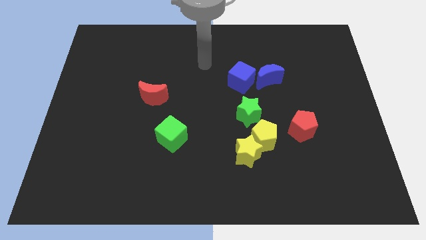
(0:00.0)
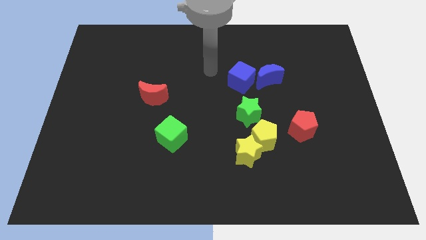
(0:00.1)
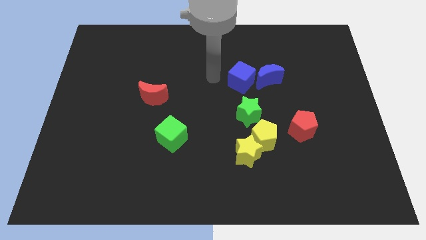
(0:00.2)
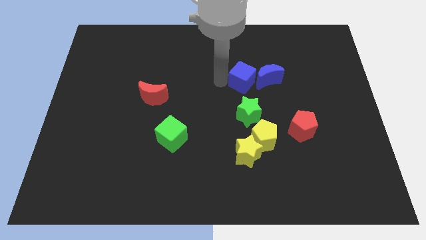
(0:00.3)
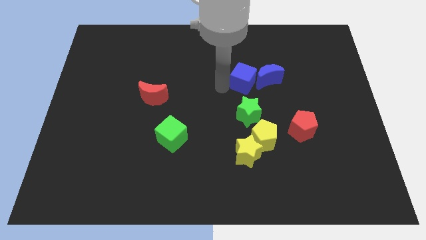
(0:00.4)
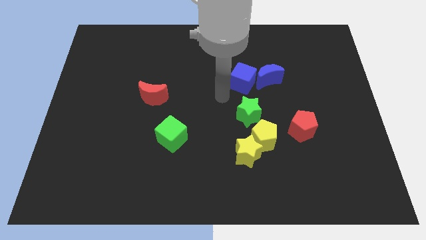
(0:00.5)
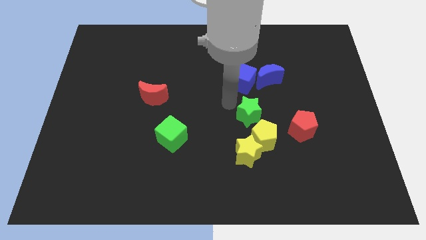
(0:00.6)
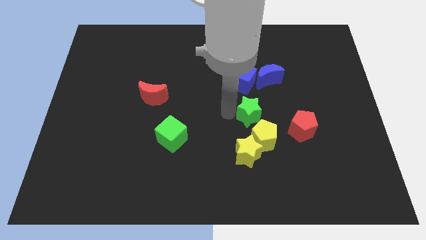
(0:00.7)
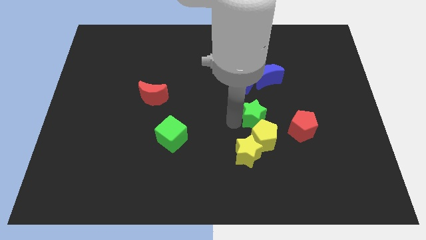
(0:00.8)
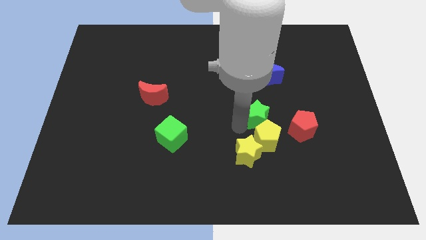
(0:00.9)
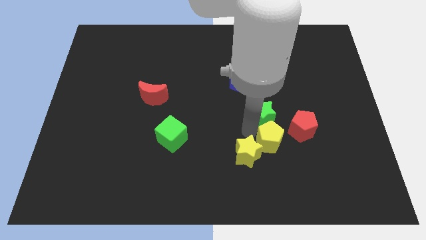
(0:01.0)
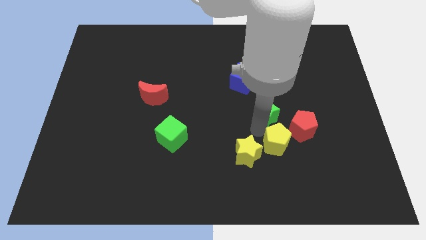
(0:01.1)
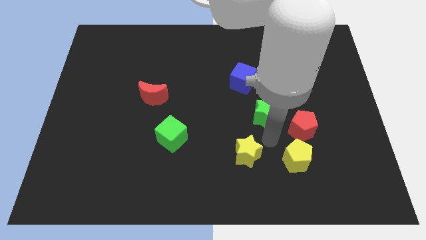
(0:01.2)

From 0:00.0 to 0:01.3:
move the yellow star away from the yellow pentagon

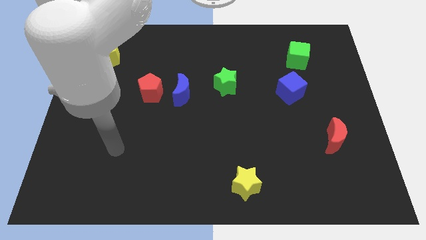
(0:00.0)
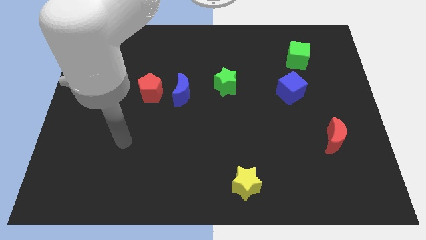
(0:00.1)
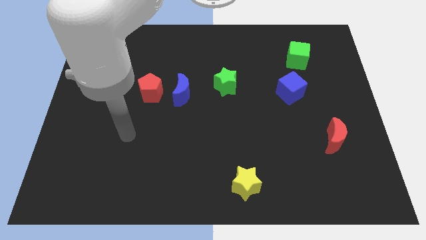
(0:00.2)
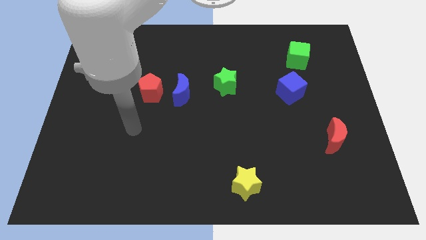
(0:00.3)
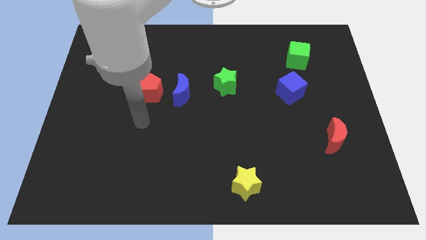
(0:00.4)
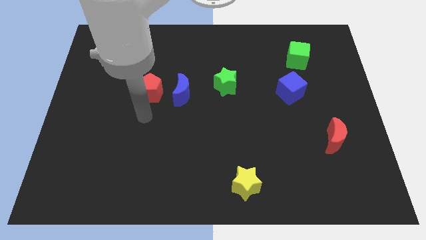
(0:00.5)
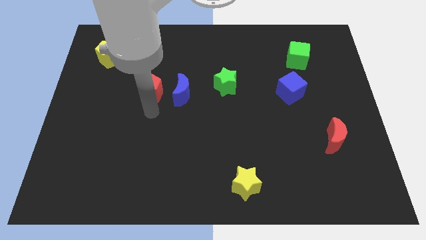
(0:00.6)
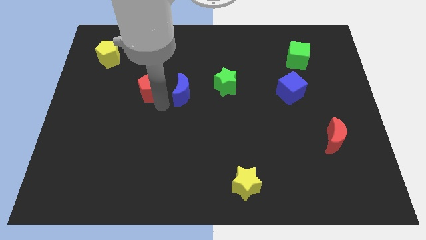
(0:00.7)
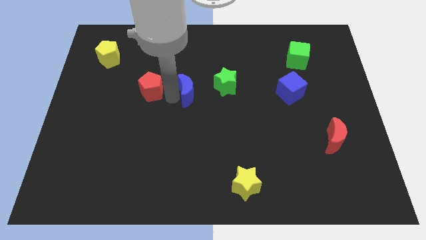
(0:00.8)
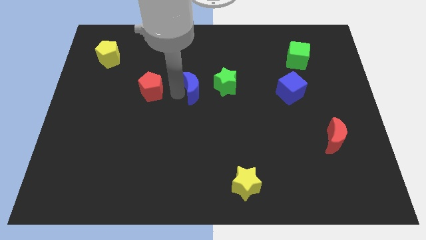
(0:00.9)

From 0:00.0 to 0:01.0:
pull the red pentagon apart from the blue moon

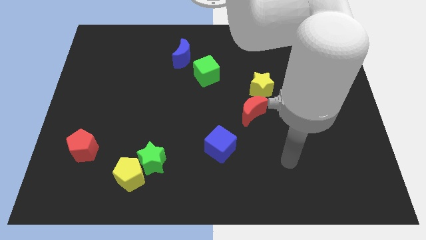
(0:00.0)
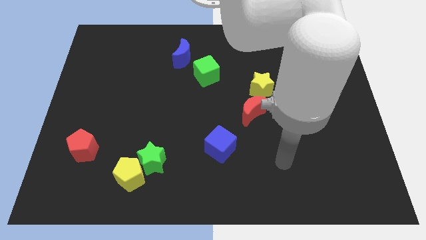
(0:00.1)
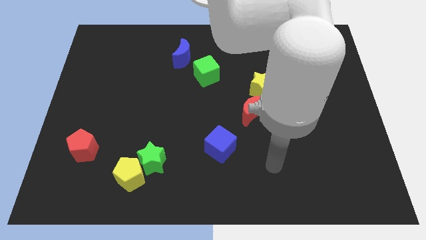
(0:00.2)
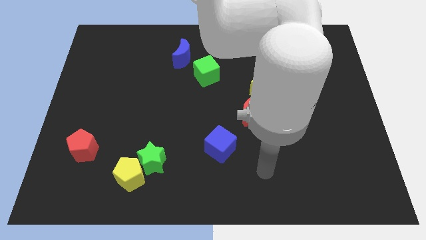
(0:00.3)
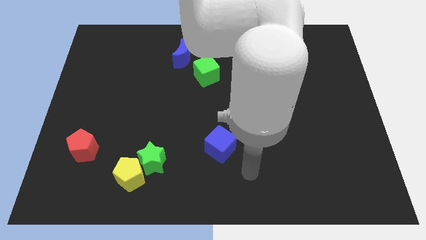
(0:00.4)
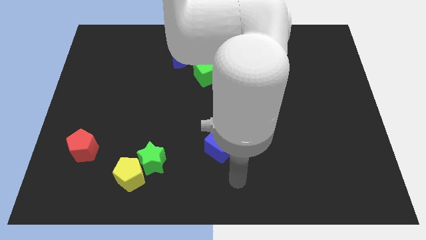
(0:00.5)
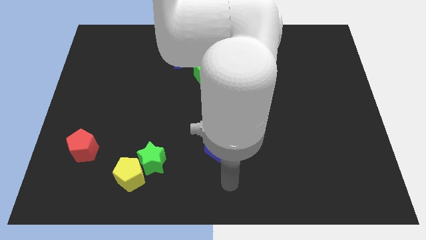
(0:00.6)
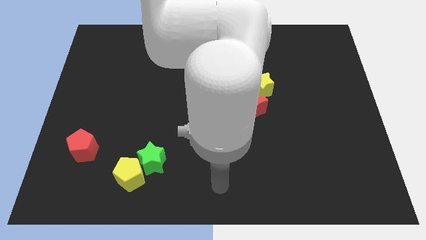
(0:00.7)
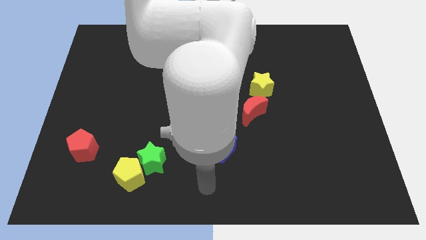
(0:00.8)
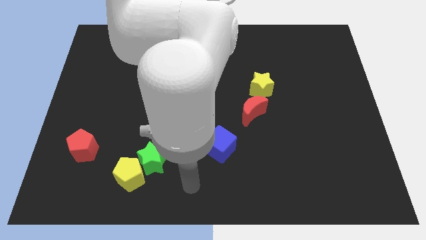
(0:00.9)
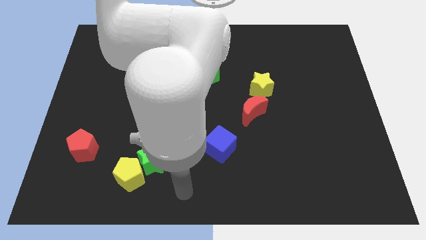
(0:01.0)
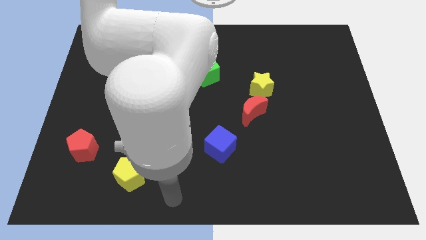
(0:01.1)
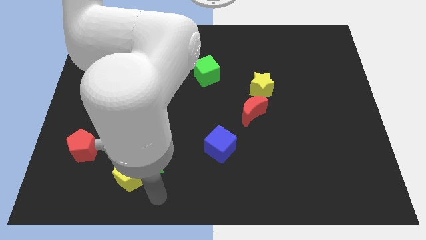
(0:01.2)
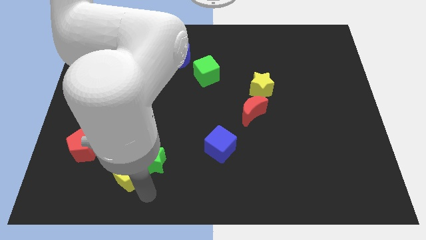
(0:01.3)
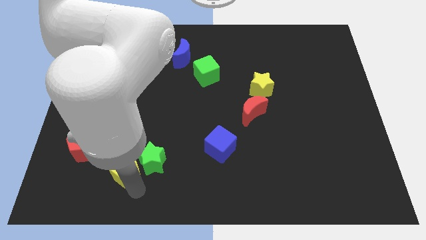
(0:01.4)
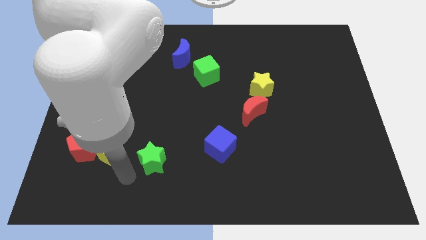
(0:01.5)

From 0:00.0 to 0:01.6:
move the green star away from the yellow pentagon

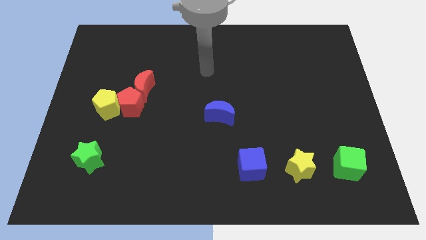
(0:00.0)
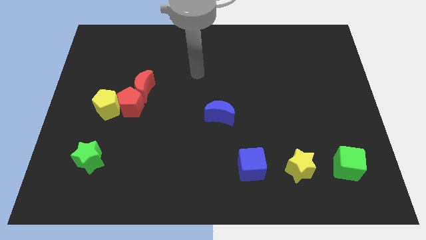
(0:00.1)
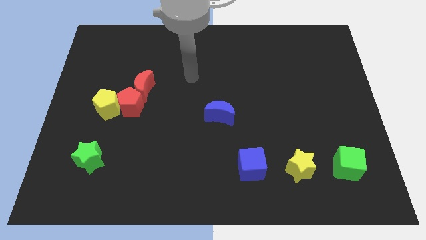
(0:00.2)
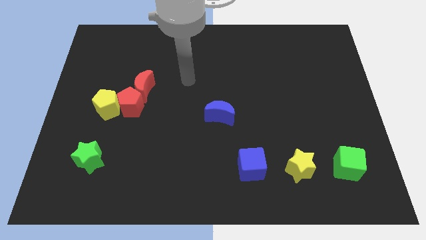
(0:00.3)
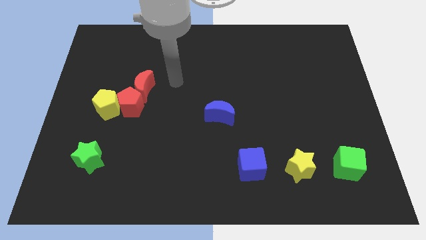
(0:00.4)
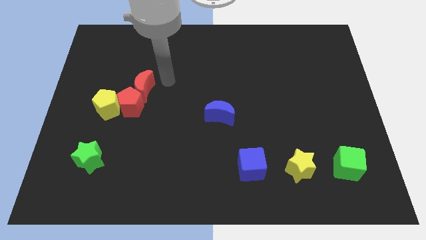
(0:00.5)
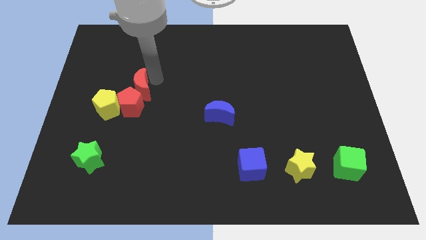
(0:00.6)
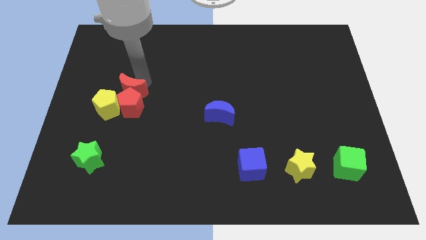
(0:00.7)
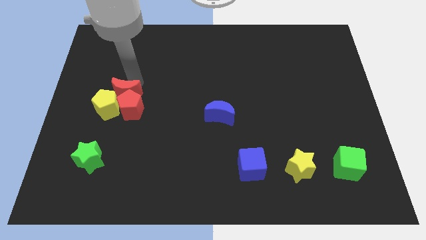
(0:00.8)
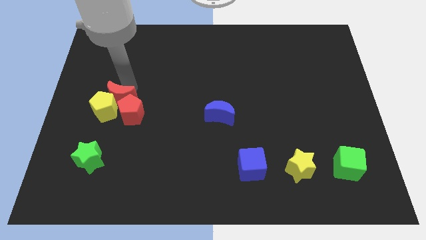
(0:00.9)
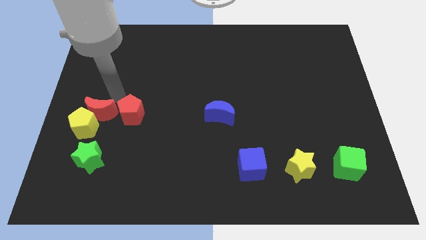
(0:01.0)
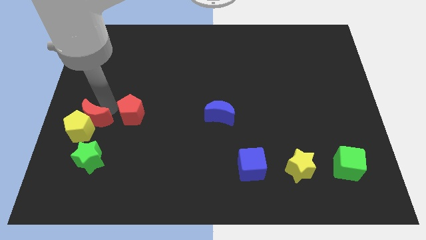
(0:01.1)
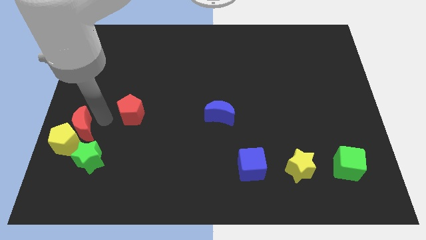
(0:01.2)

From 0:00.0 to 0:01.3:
separate the red pentagon from the yellow pentagon and red moon

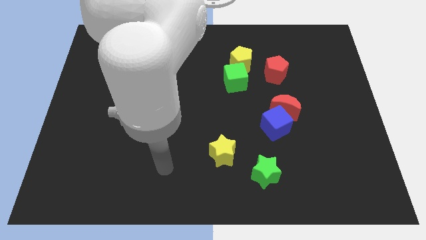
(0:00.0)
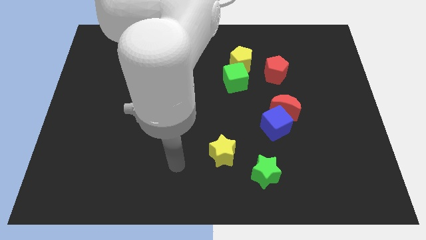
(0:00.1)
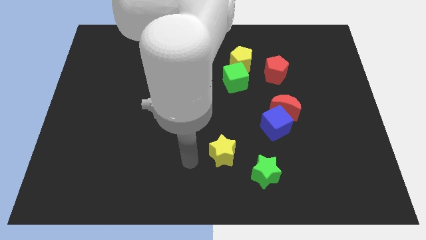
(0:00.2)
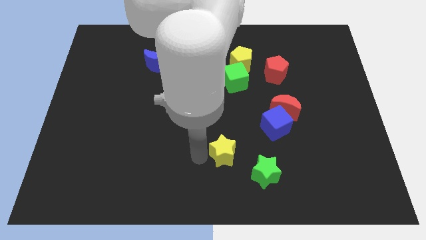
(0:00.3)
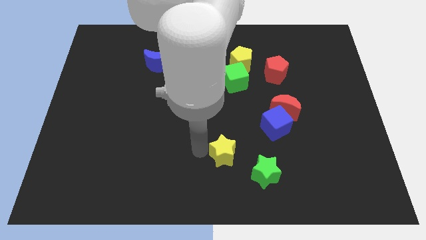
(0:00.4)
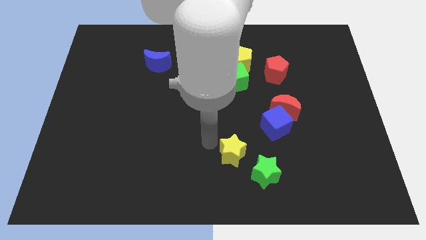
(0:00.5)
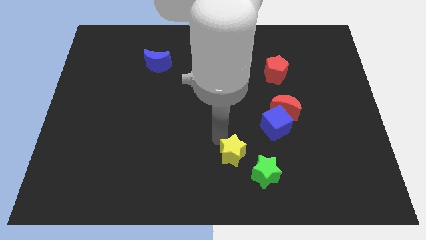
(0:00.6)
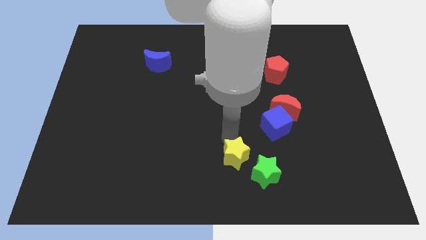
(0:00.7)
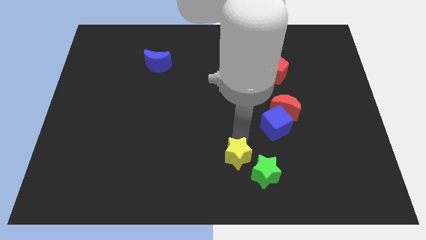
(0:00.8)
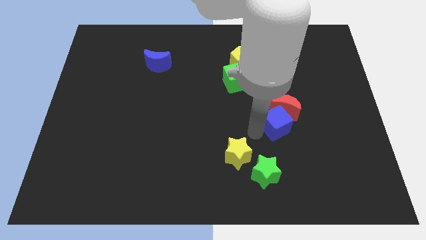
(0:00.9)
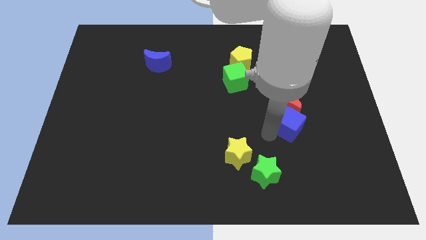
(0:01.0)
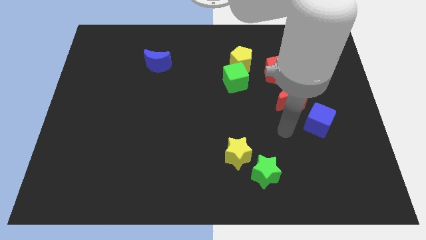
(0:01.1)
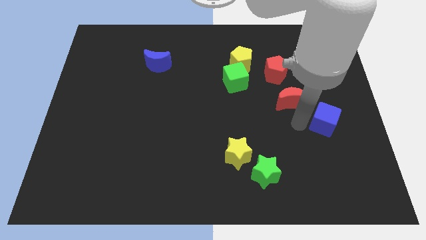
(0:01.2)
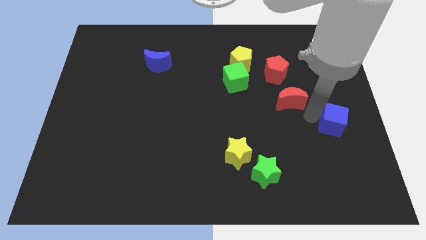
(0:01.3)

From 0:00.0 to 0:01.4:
separate the red moon from the blue cube

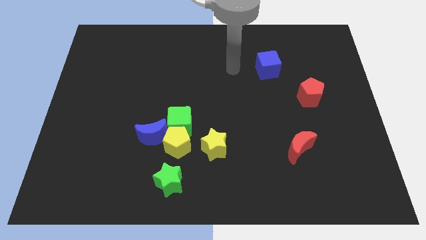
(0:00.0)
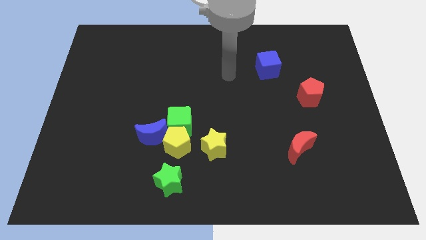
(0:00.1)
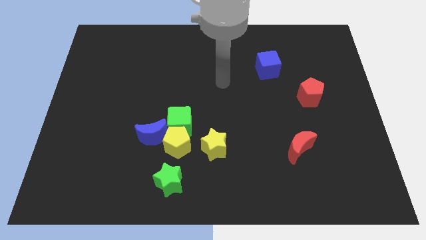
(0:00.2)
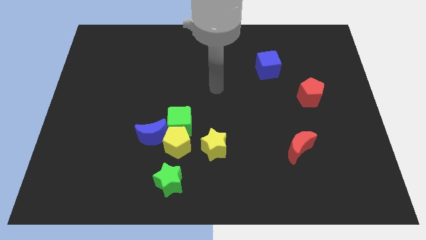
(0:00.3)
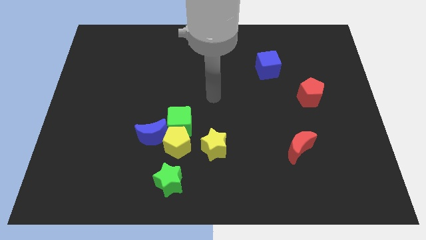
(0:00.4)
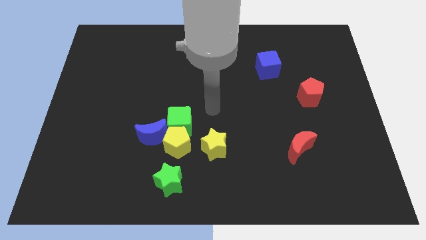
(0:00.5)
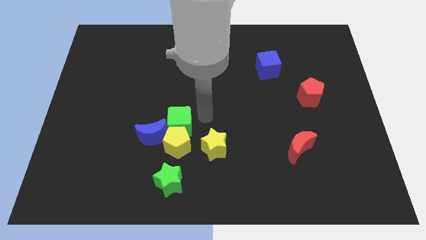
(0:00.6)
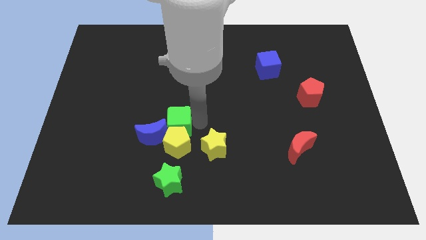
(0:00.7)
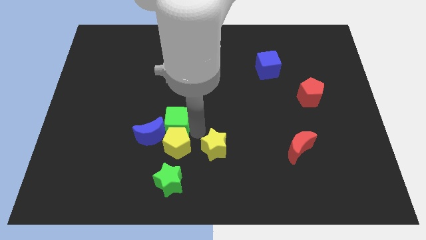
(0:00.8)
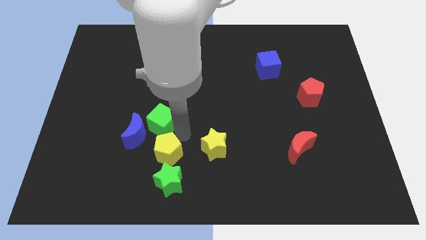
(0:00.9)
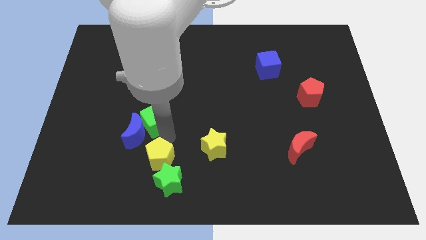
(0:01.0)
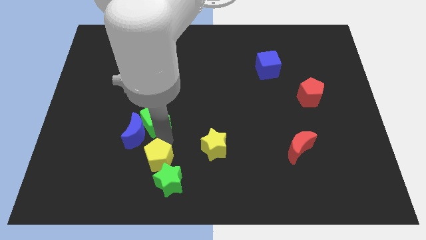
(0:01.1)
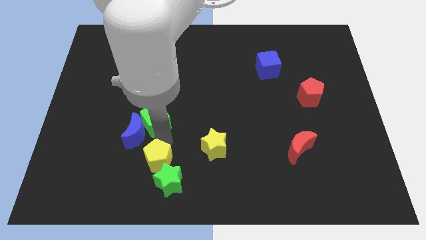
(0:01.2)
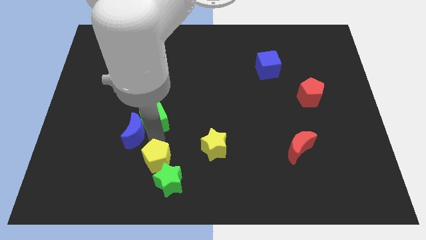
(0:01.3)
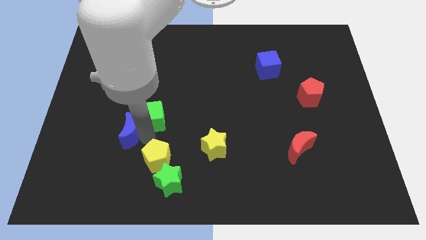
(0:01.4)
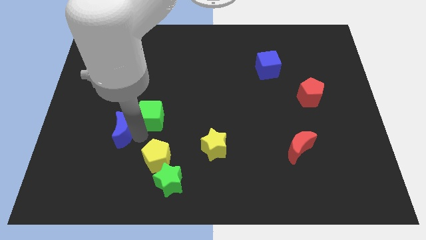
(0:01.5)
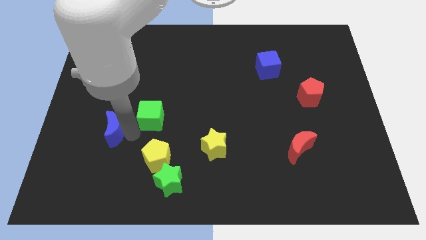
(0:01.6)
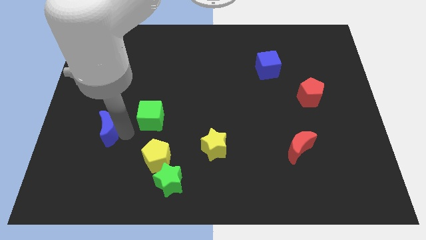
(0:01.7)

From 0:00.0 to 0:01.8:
pull the blue moon apart from the yellow pentagon and green cube

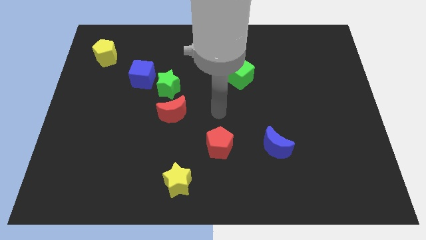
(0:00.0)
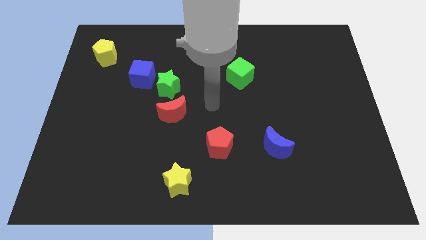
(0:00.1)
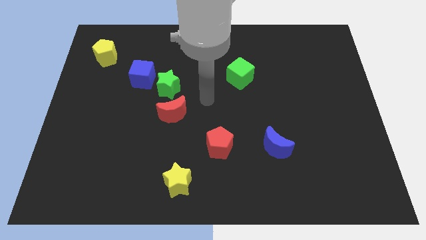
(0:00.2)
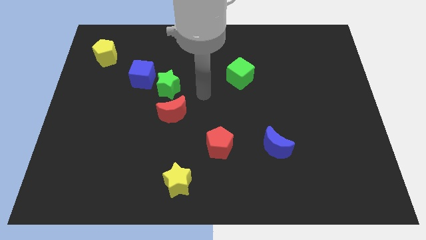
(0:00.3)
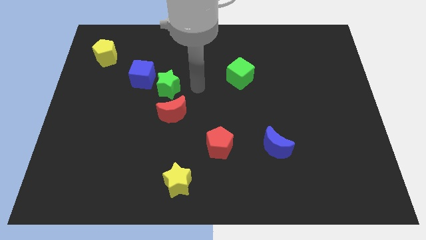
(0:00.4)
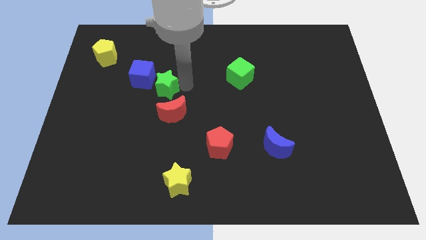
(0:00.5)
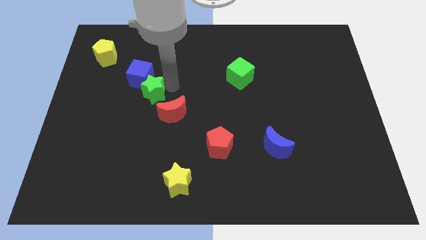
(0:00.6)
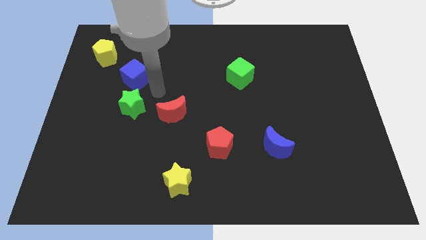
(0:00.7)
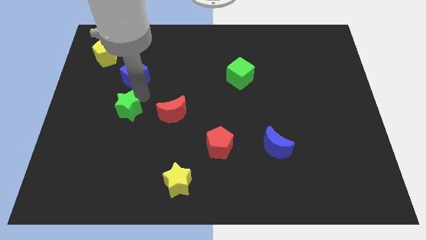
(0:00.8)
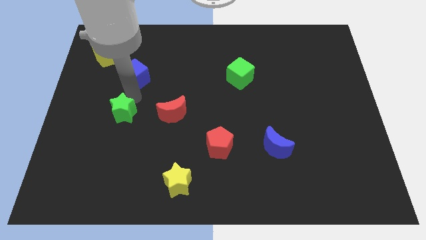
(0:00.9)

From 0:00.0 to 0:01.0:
separate the blue cube from the green star
